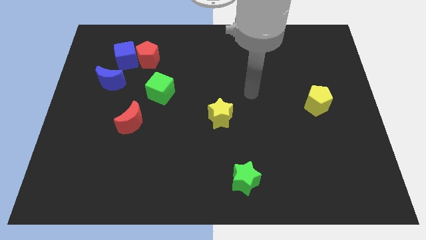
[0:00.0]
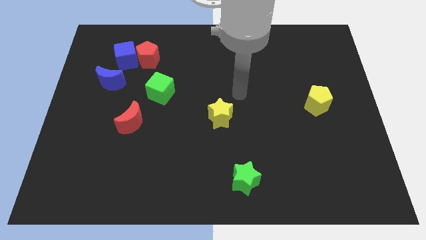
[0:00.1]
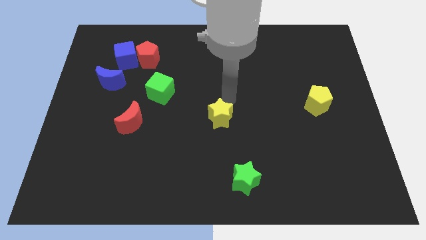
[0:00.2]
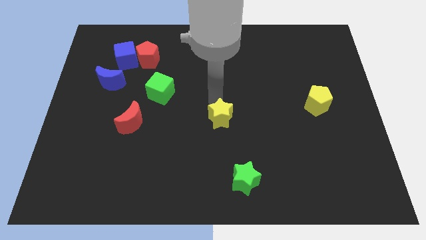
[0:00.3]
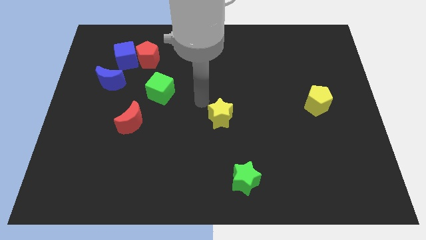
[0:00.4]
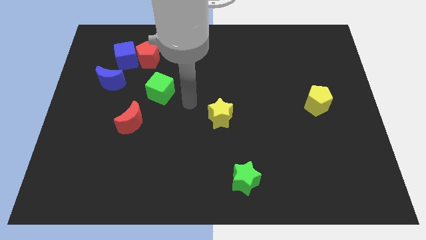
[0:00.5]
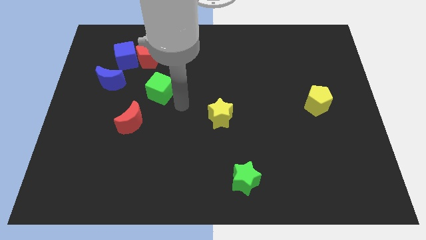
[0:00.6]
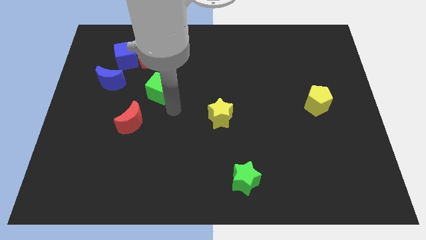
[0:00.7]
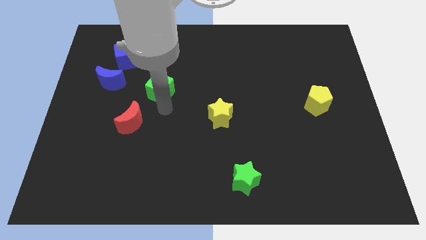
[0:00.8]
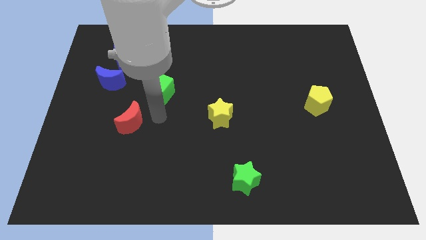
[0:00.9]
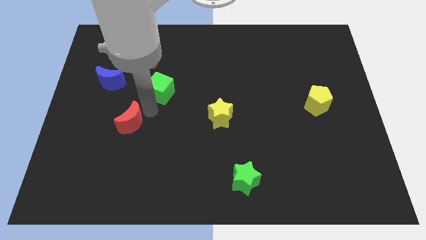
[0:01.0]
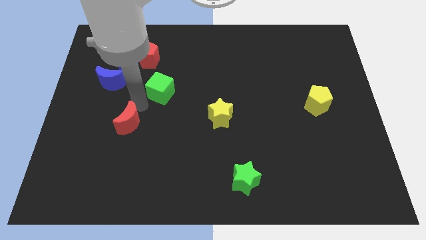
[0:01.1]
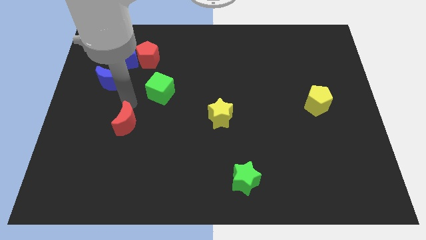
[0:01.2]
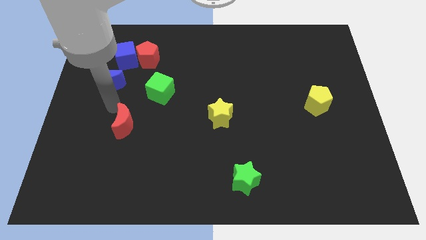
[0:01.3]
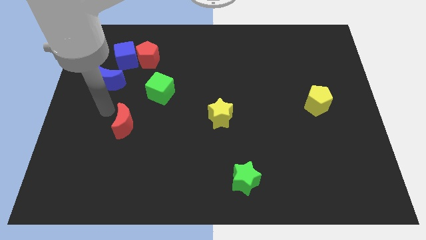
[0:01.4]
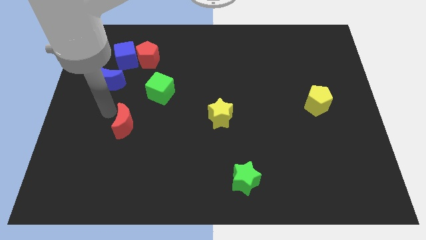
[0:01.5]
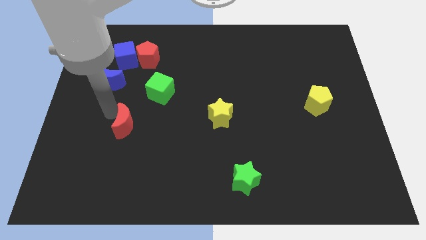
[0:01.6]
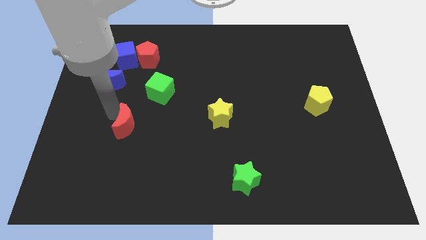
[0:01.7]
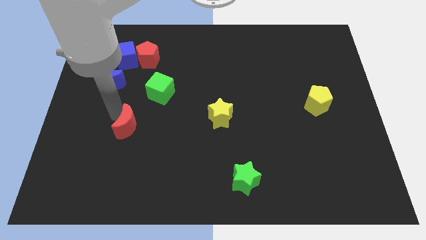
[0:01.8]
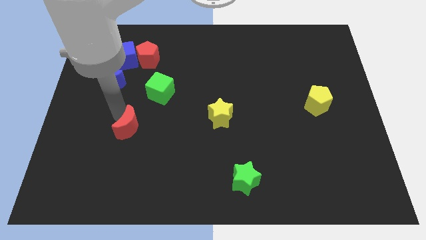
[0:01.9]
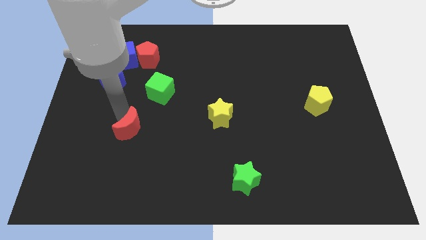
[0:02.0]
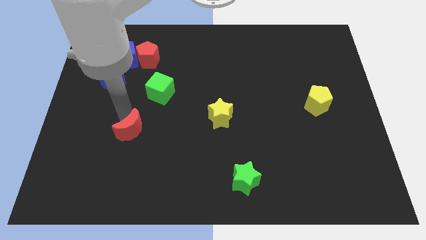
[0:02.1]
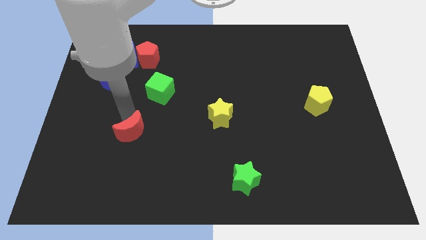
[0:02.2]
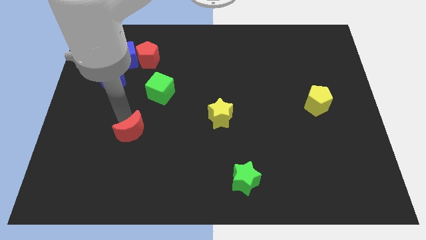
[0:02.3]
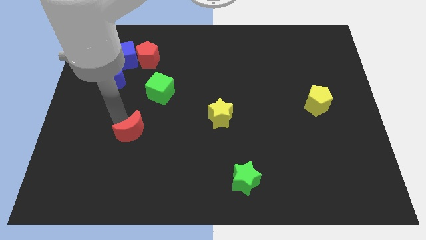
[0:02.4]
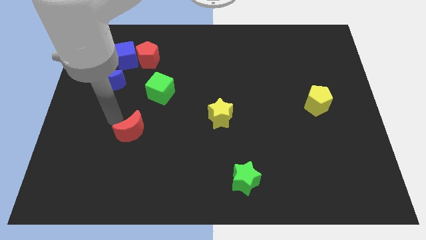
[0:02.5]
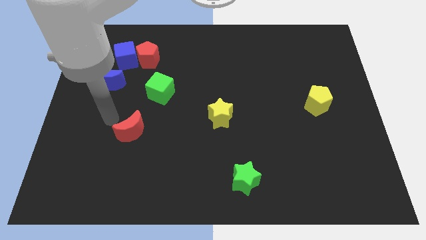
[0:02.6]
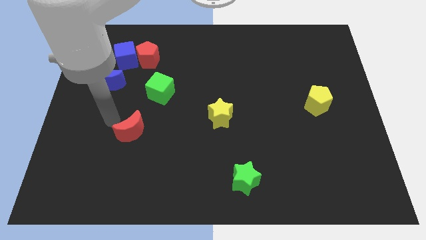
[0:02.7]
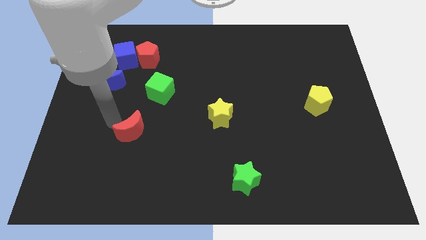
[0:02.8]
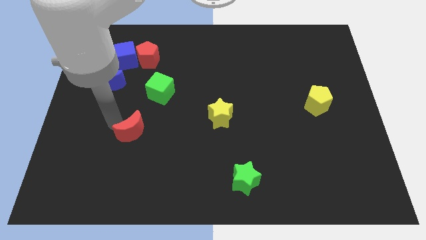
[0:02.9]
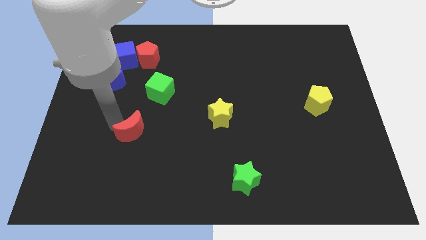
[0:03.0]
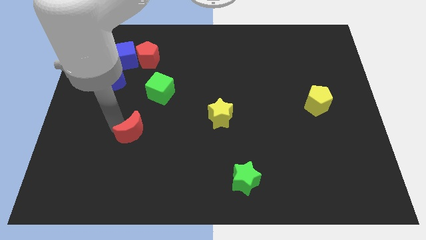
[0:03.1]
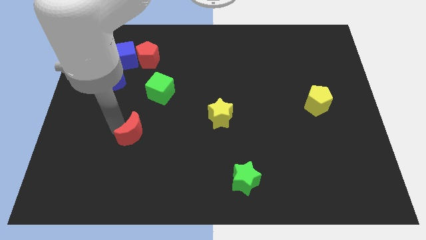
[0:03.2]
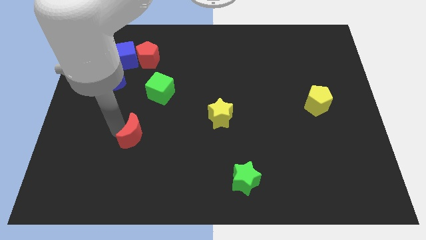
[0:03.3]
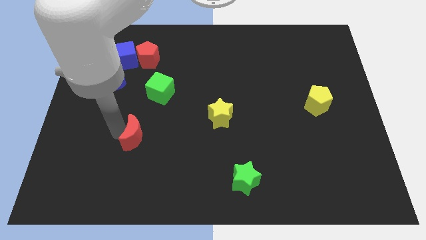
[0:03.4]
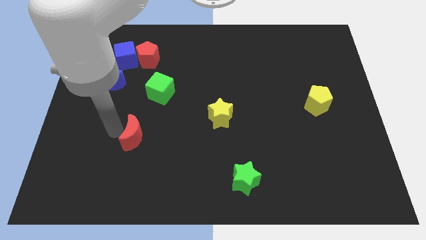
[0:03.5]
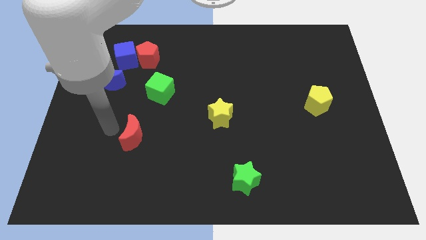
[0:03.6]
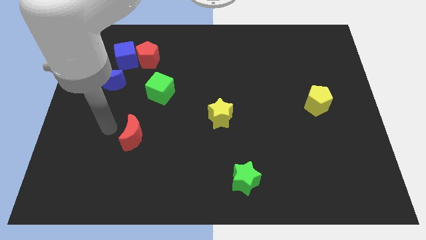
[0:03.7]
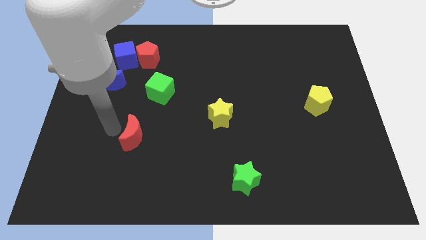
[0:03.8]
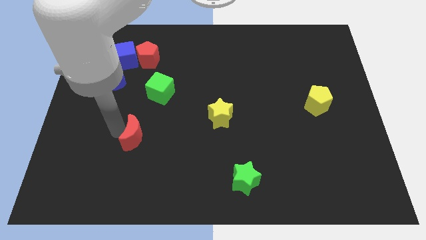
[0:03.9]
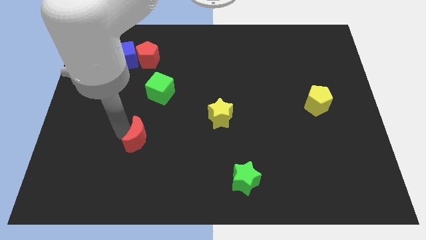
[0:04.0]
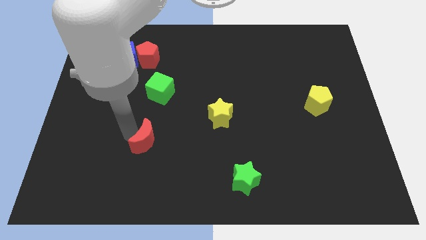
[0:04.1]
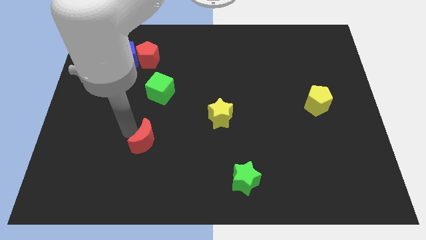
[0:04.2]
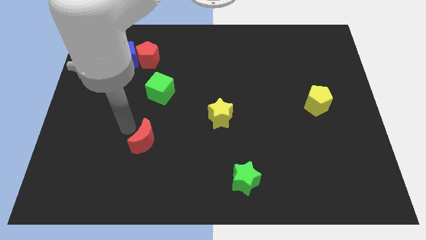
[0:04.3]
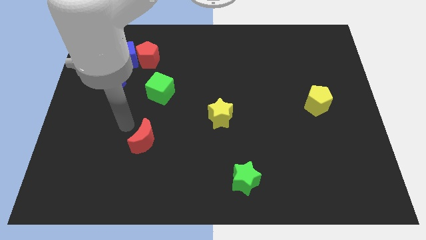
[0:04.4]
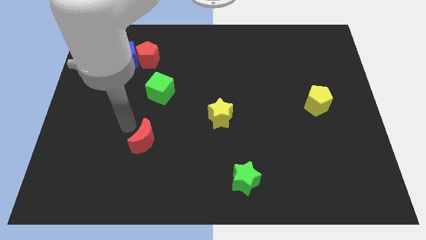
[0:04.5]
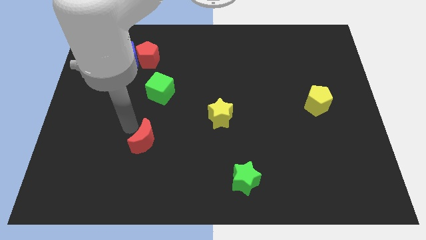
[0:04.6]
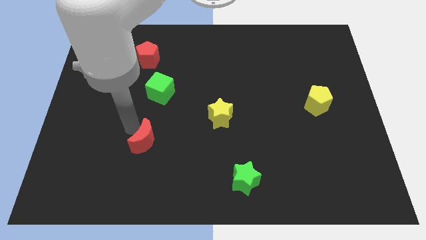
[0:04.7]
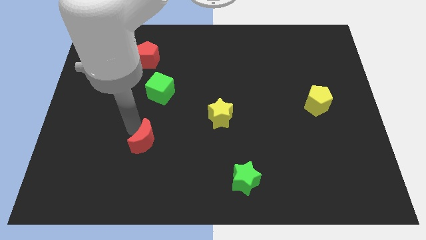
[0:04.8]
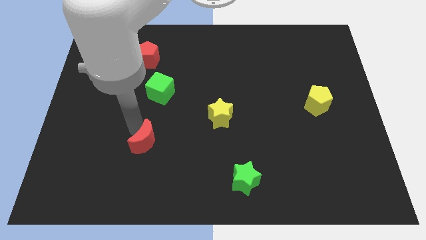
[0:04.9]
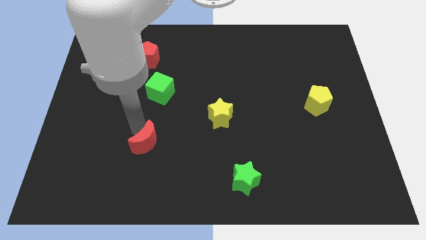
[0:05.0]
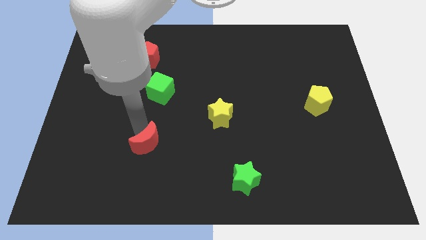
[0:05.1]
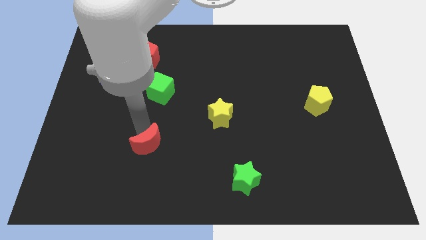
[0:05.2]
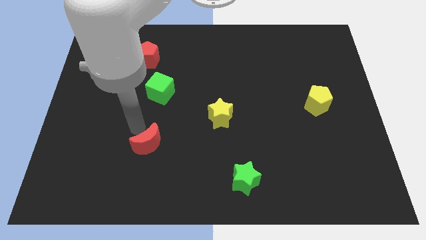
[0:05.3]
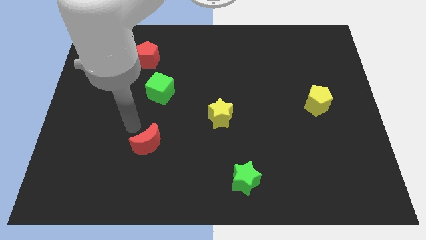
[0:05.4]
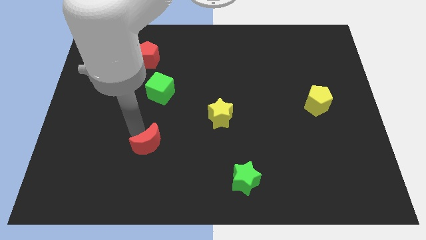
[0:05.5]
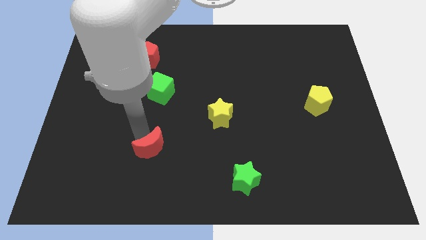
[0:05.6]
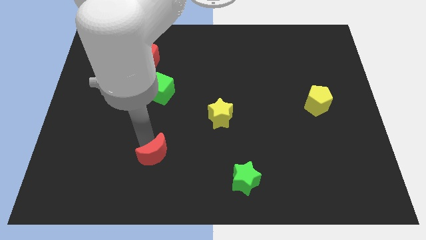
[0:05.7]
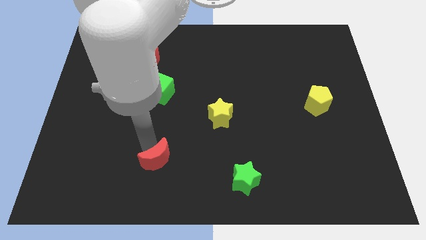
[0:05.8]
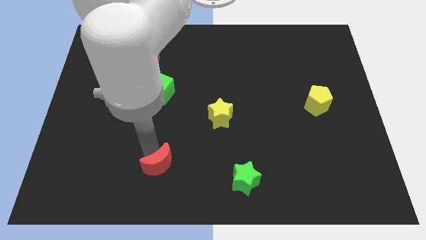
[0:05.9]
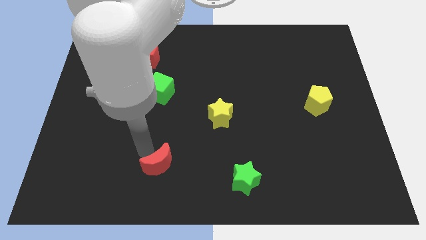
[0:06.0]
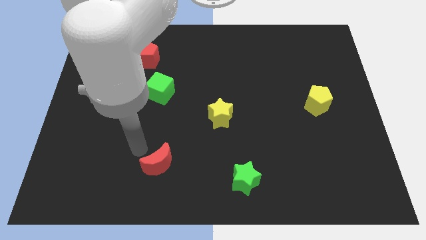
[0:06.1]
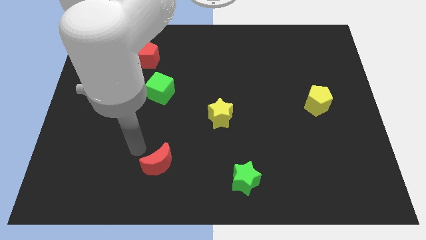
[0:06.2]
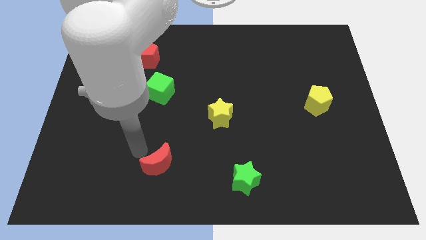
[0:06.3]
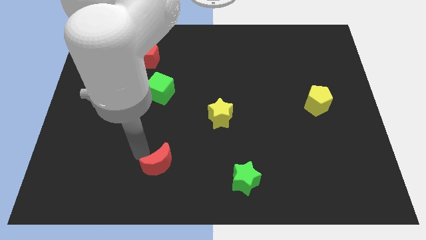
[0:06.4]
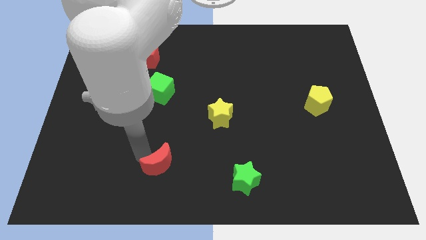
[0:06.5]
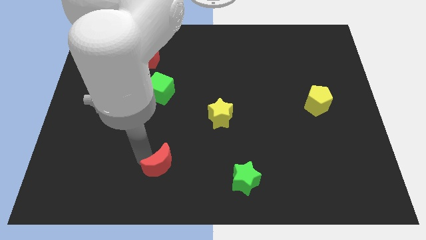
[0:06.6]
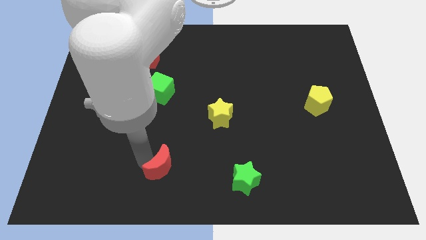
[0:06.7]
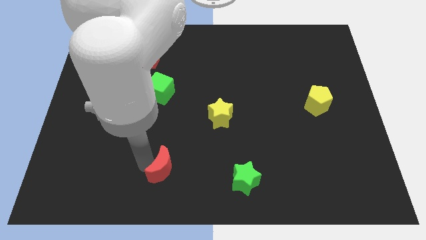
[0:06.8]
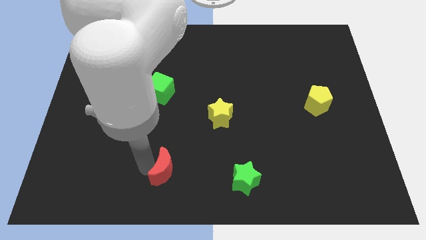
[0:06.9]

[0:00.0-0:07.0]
move the red moon to the bottom
